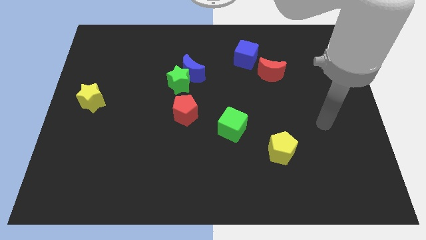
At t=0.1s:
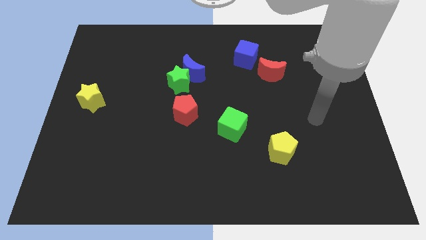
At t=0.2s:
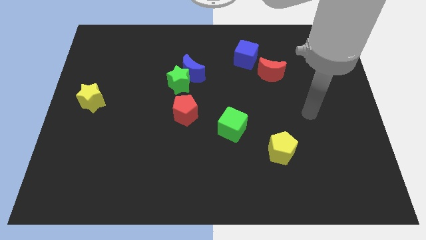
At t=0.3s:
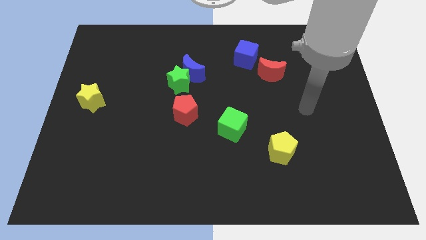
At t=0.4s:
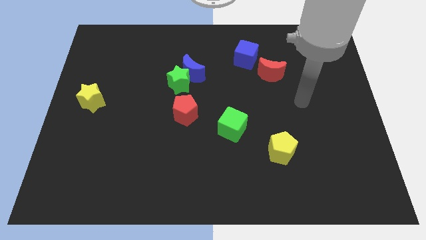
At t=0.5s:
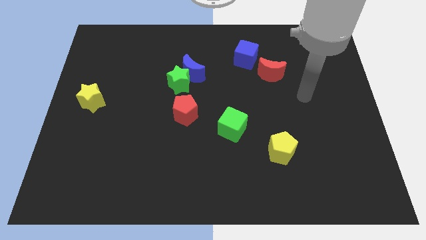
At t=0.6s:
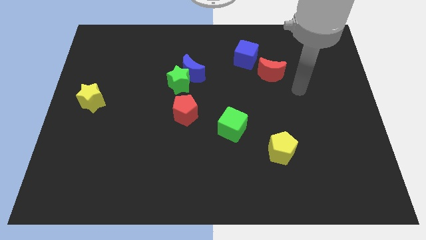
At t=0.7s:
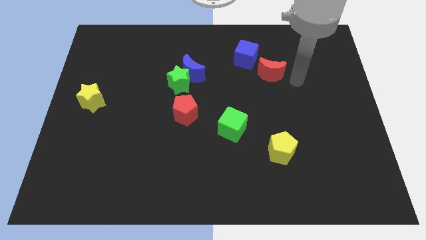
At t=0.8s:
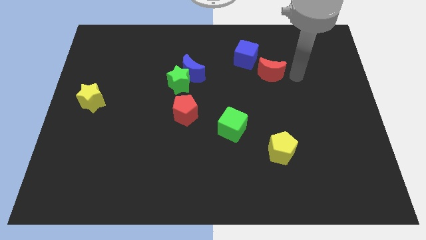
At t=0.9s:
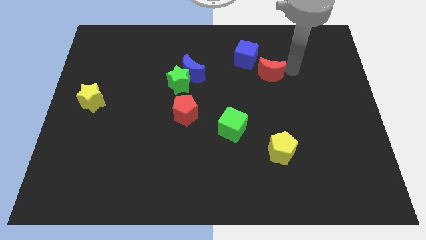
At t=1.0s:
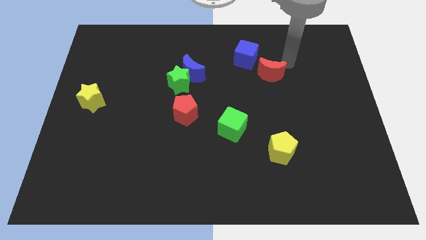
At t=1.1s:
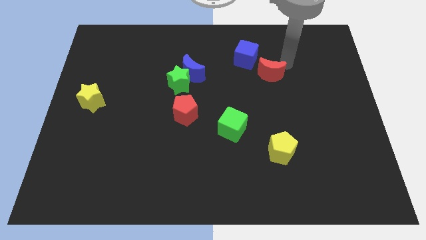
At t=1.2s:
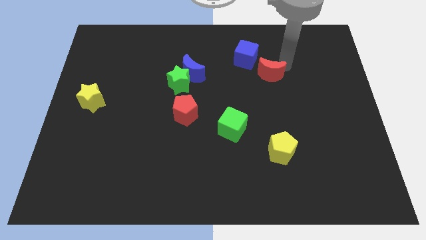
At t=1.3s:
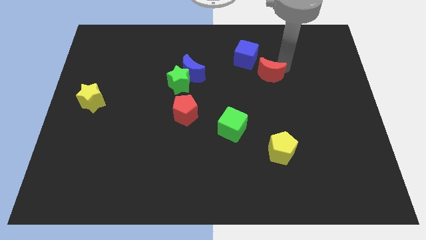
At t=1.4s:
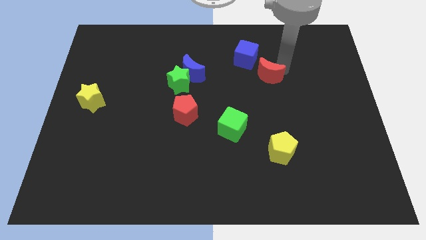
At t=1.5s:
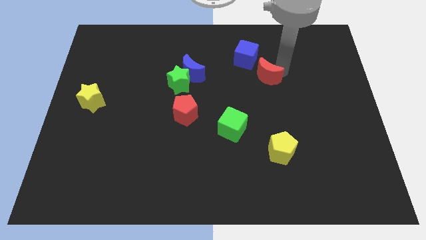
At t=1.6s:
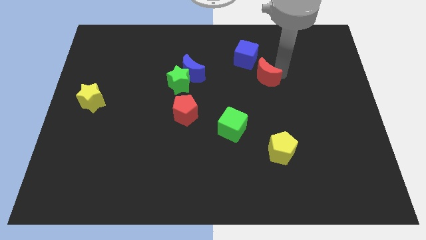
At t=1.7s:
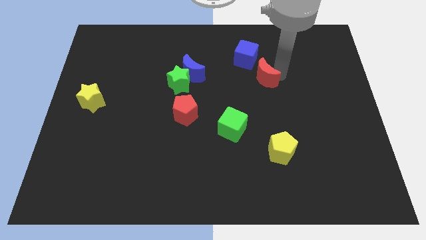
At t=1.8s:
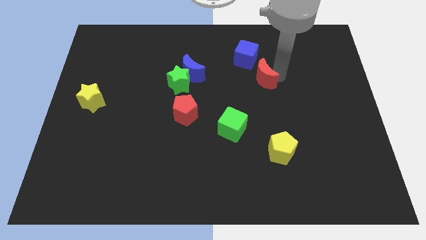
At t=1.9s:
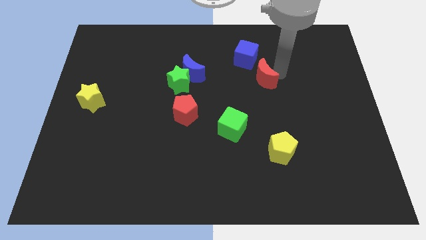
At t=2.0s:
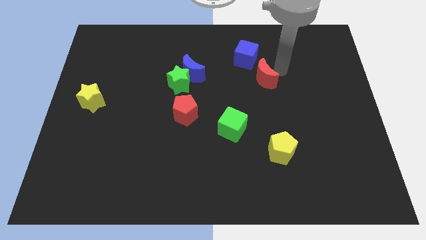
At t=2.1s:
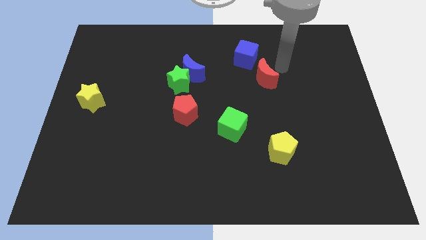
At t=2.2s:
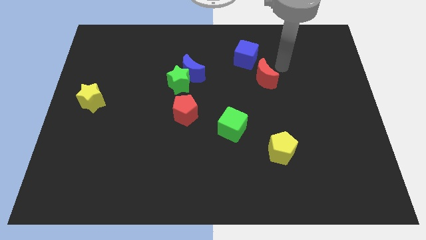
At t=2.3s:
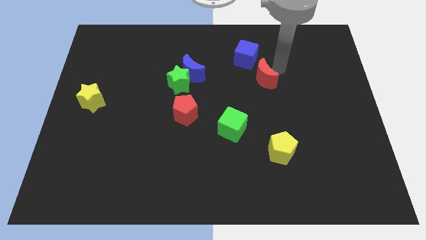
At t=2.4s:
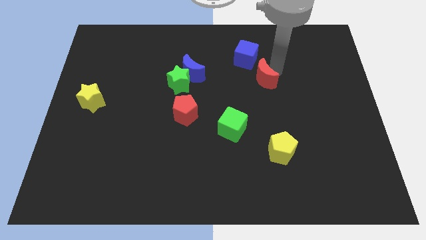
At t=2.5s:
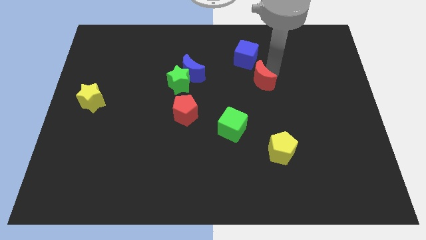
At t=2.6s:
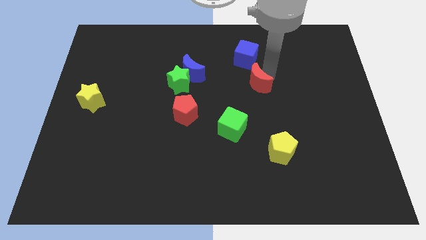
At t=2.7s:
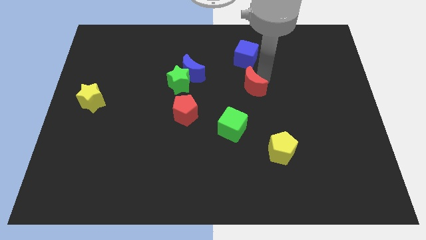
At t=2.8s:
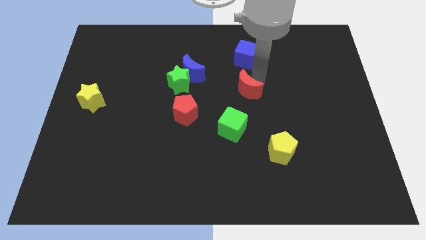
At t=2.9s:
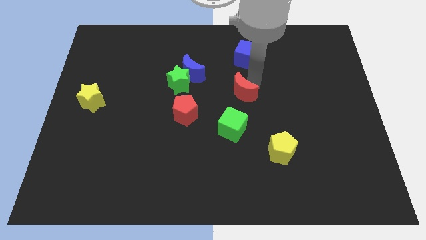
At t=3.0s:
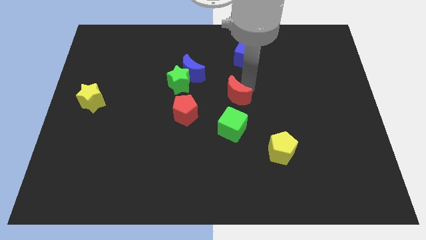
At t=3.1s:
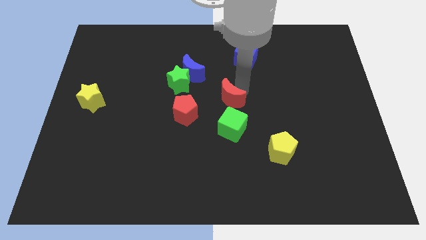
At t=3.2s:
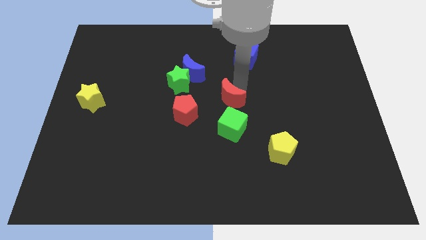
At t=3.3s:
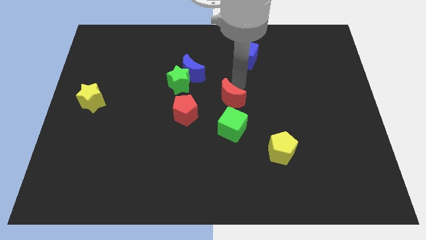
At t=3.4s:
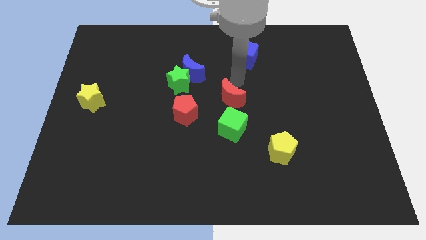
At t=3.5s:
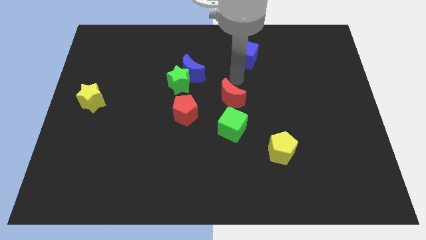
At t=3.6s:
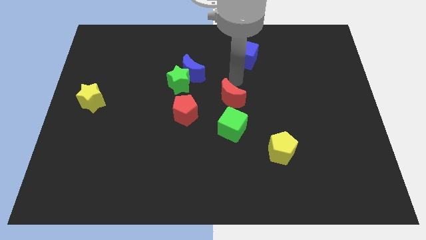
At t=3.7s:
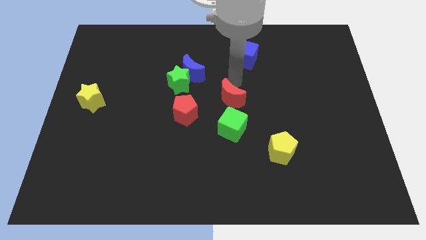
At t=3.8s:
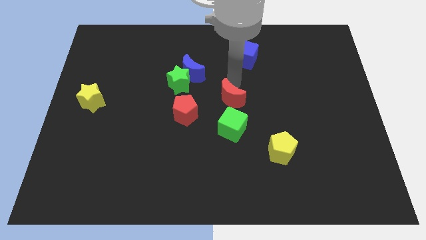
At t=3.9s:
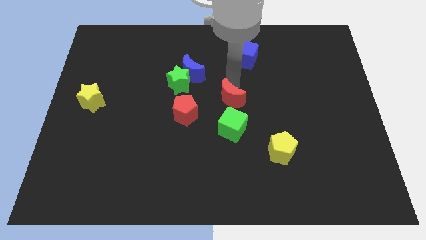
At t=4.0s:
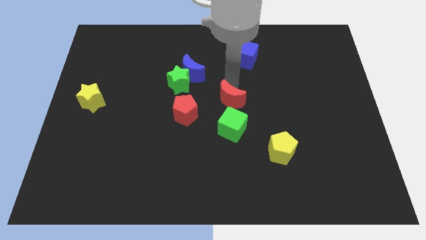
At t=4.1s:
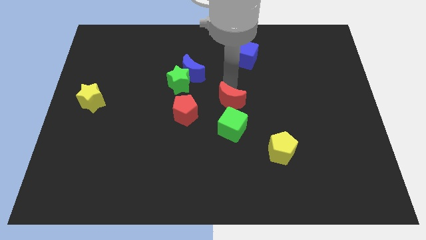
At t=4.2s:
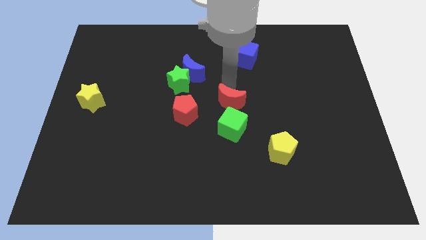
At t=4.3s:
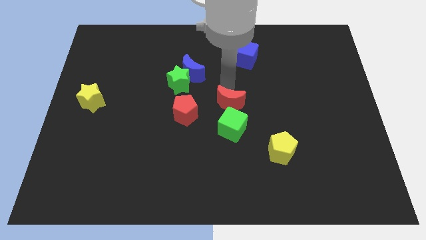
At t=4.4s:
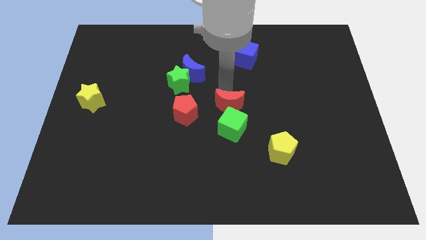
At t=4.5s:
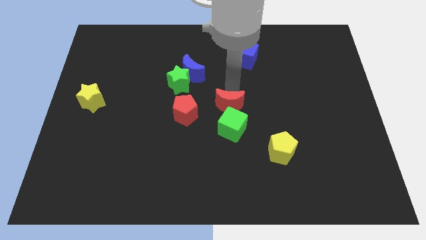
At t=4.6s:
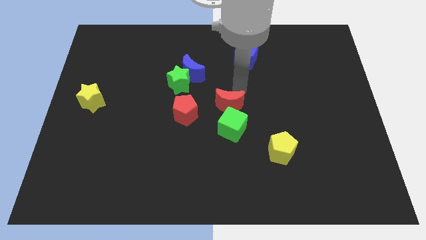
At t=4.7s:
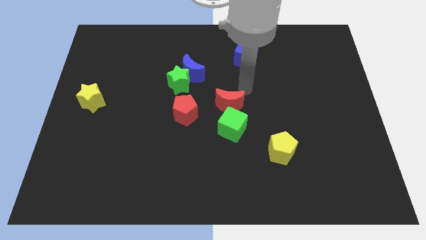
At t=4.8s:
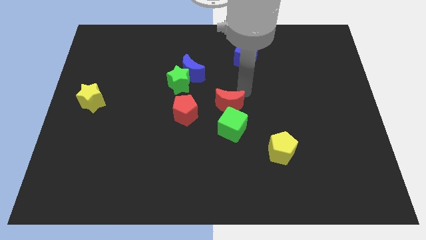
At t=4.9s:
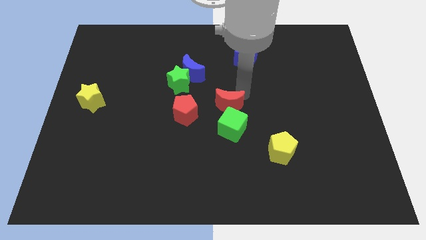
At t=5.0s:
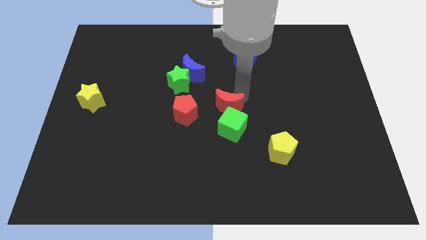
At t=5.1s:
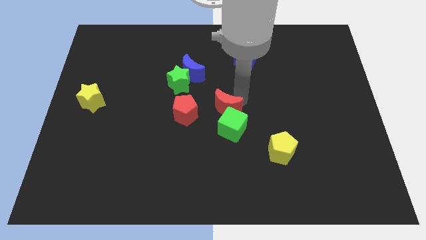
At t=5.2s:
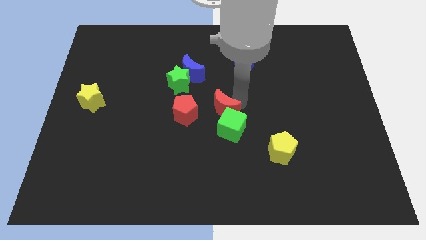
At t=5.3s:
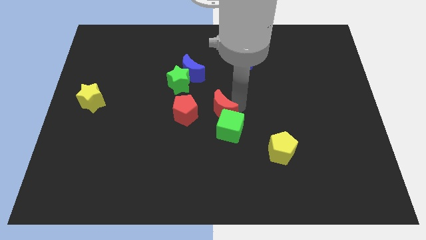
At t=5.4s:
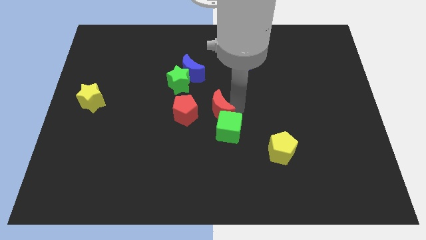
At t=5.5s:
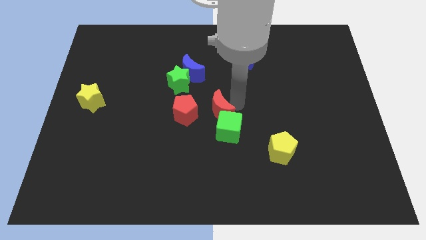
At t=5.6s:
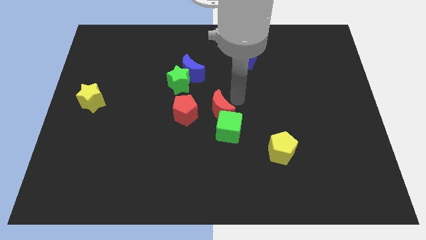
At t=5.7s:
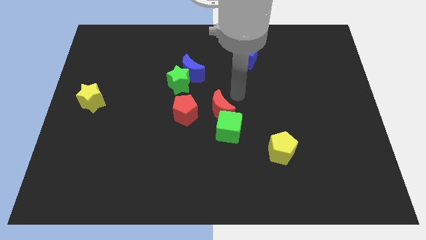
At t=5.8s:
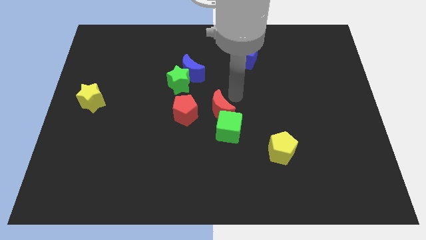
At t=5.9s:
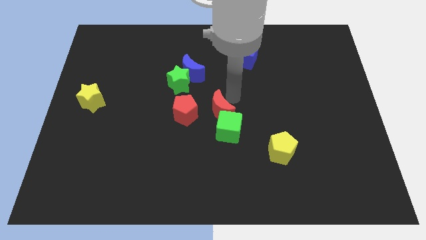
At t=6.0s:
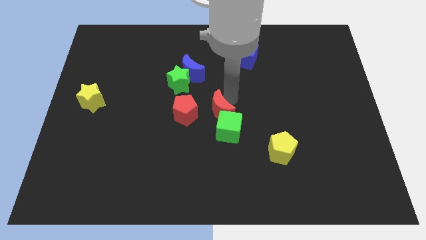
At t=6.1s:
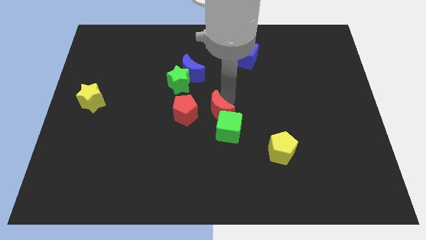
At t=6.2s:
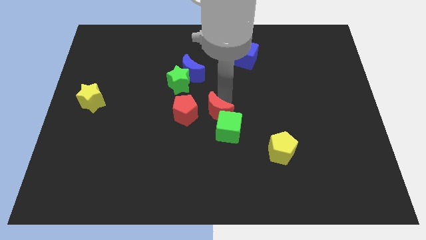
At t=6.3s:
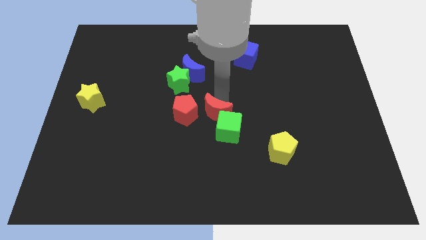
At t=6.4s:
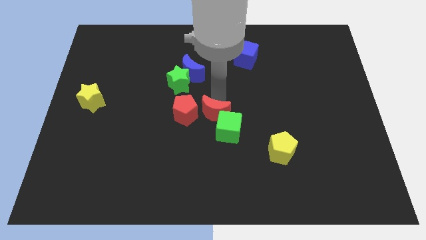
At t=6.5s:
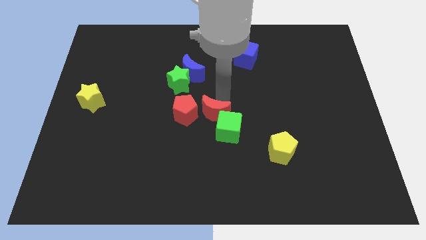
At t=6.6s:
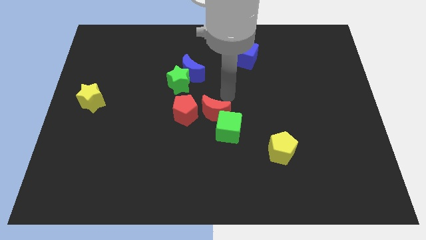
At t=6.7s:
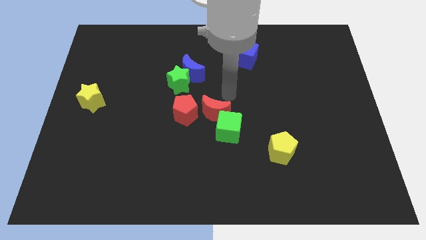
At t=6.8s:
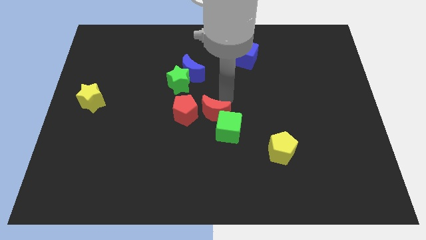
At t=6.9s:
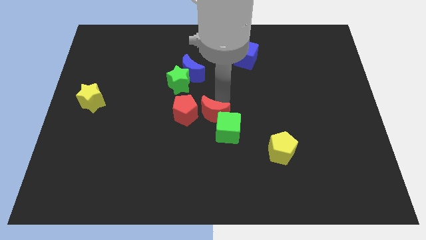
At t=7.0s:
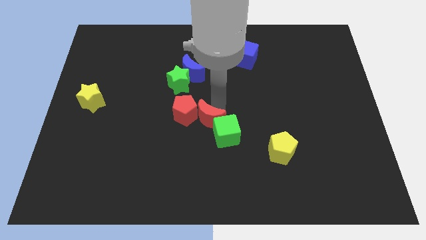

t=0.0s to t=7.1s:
move the red moon down and left

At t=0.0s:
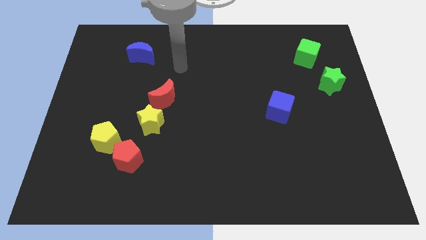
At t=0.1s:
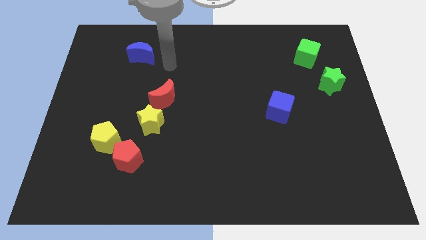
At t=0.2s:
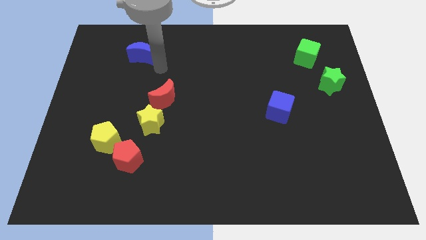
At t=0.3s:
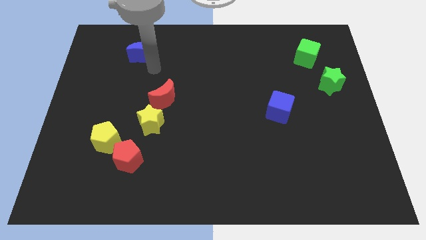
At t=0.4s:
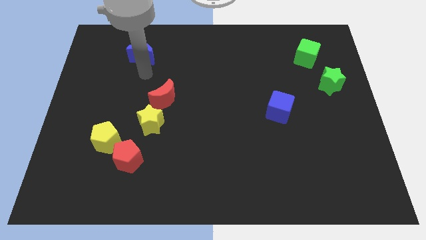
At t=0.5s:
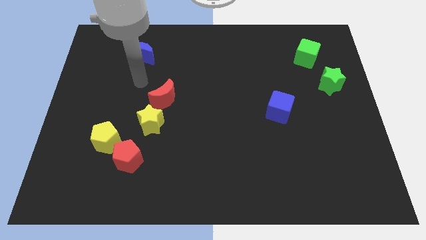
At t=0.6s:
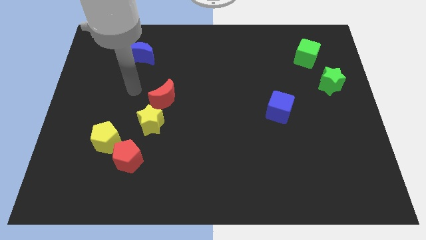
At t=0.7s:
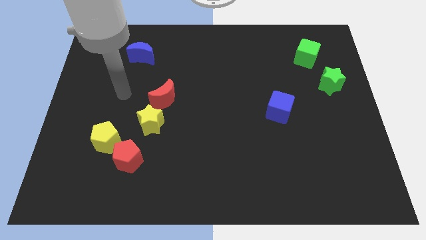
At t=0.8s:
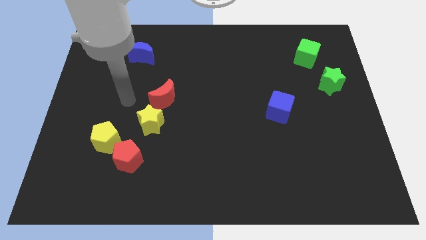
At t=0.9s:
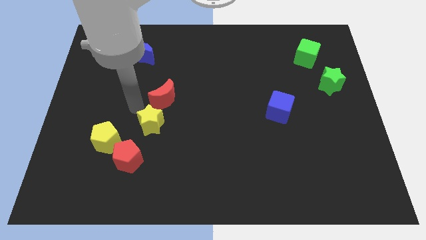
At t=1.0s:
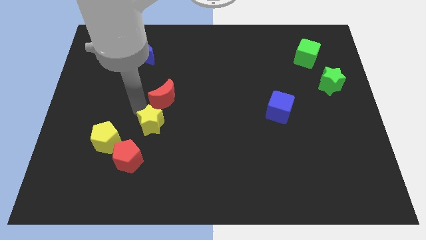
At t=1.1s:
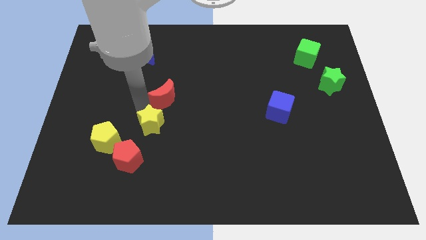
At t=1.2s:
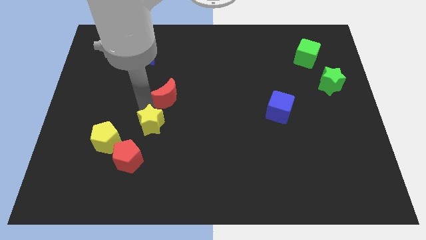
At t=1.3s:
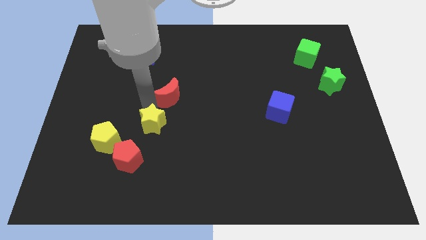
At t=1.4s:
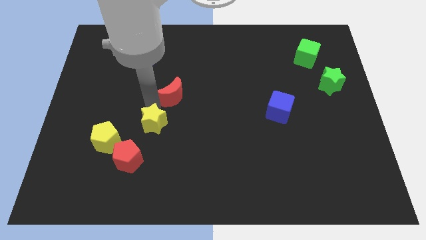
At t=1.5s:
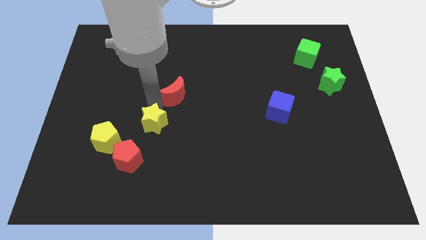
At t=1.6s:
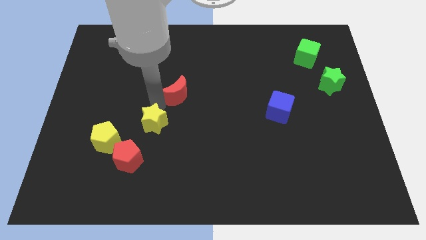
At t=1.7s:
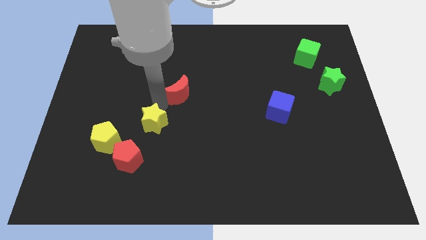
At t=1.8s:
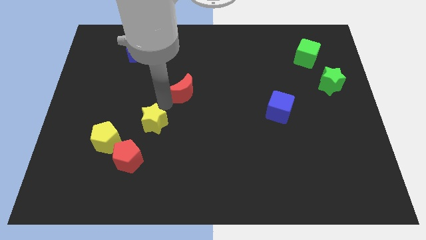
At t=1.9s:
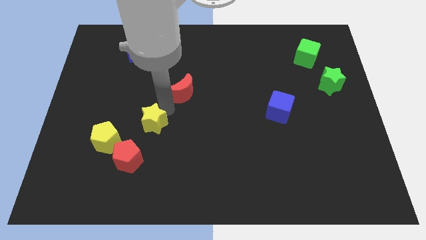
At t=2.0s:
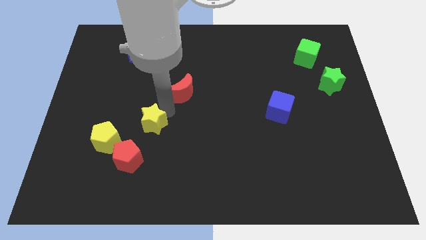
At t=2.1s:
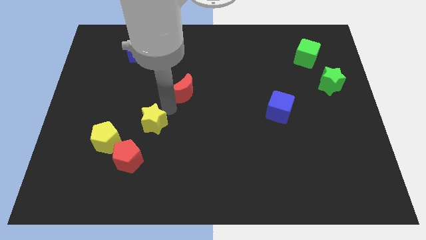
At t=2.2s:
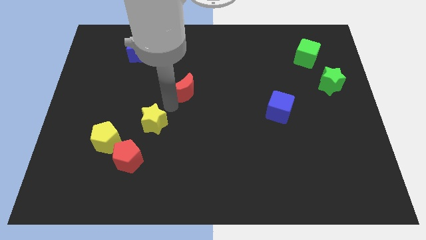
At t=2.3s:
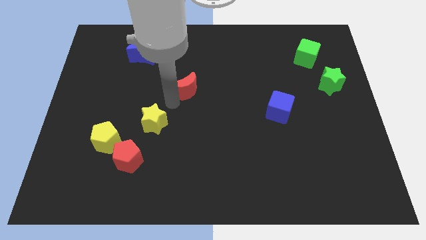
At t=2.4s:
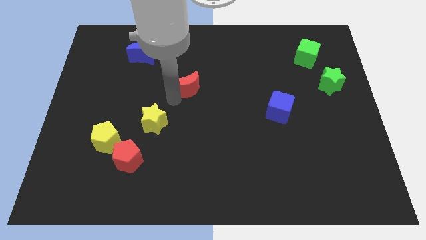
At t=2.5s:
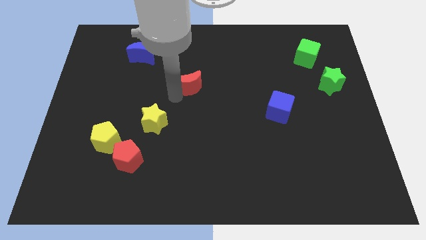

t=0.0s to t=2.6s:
slightly slide the red moon upwards and then right
